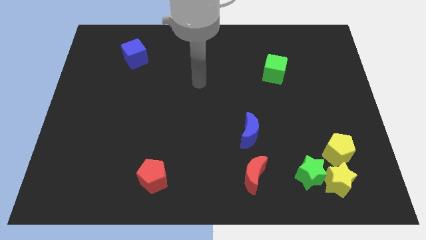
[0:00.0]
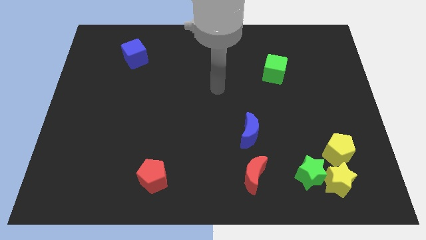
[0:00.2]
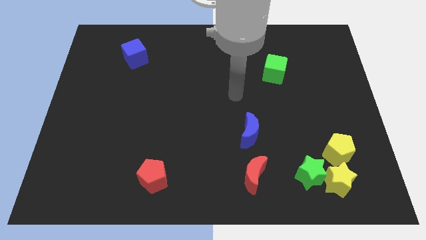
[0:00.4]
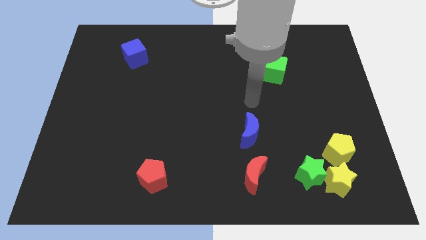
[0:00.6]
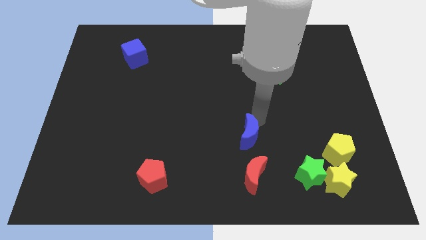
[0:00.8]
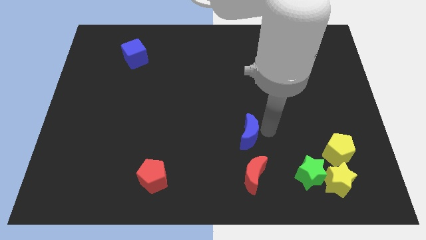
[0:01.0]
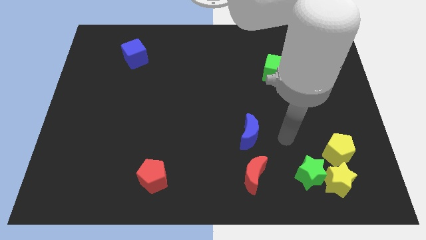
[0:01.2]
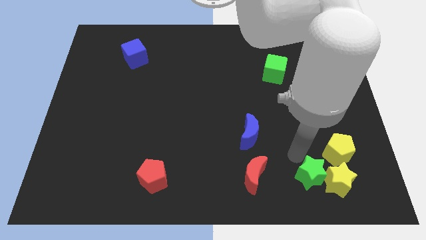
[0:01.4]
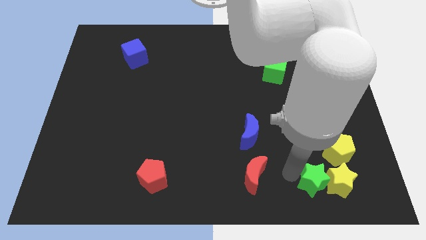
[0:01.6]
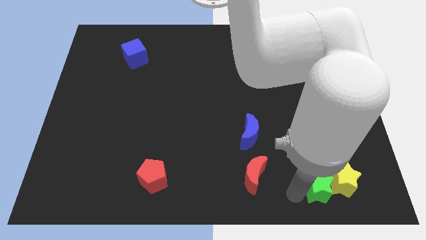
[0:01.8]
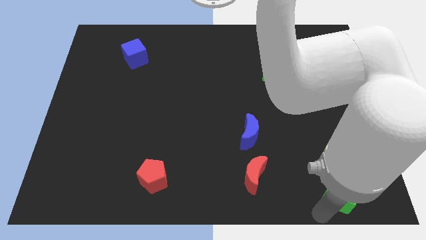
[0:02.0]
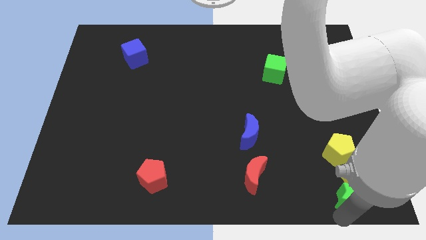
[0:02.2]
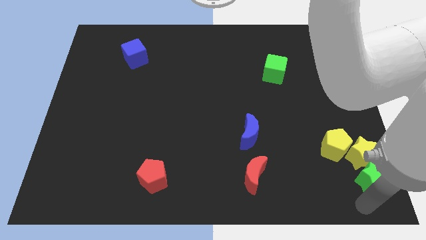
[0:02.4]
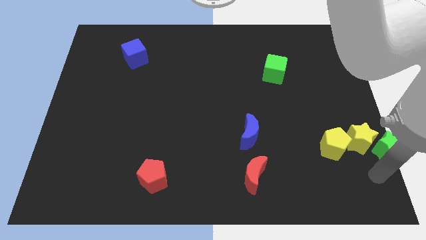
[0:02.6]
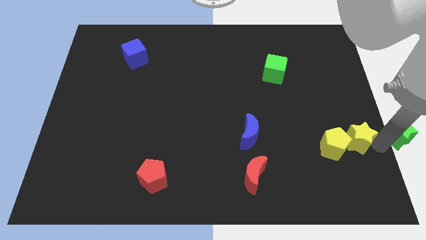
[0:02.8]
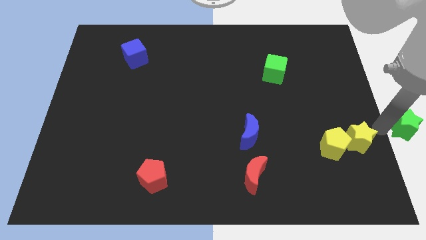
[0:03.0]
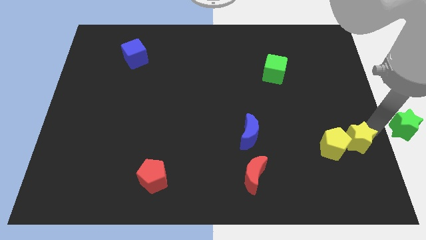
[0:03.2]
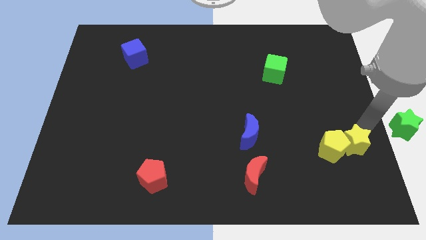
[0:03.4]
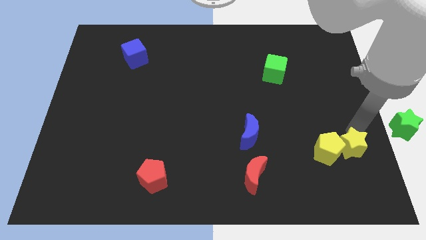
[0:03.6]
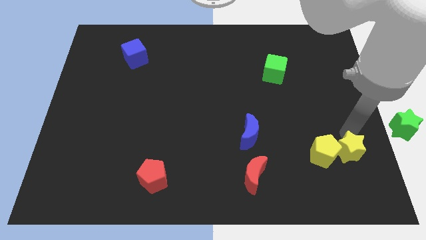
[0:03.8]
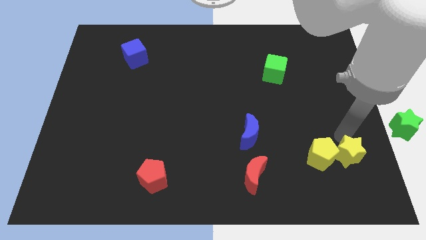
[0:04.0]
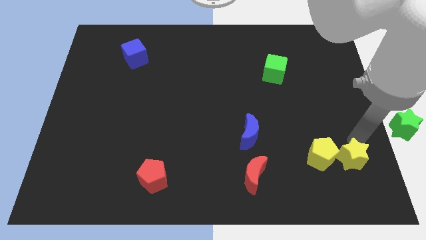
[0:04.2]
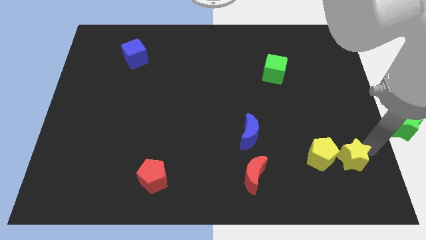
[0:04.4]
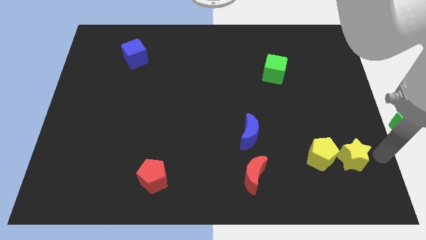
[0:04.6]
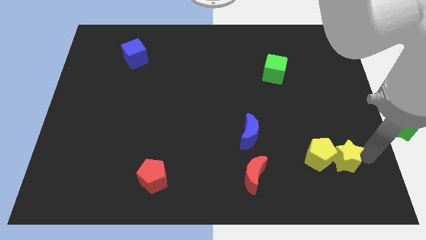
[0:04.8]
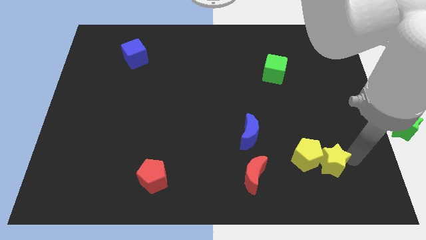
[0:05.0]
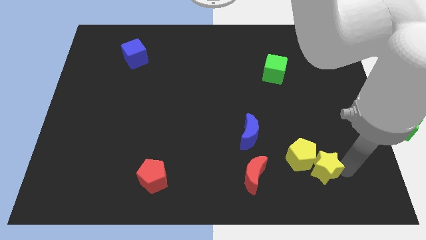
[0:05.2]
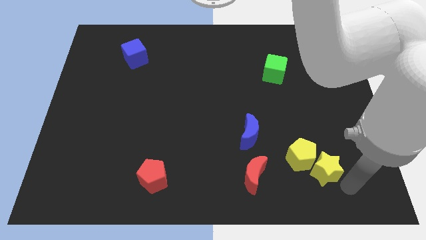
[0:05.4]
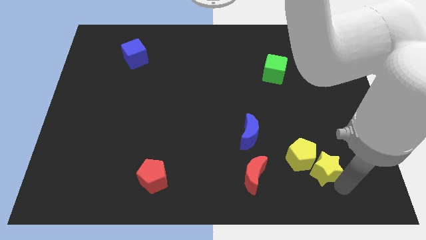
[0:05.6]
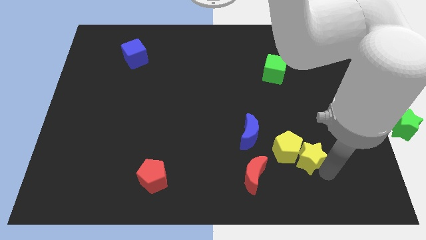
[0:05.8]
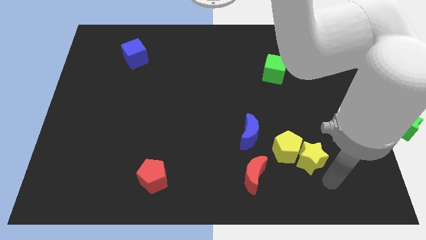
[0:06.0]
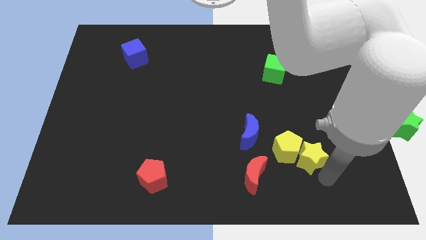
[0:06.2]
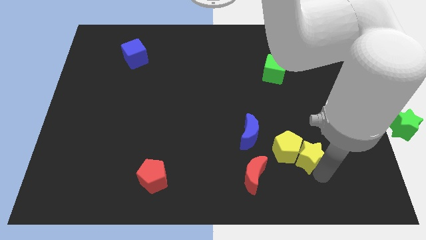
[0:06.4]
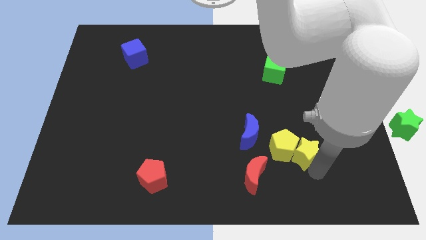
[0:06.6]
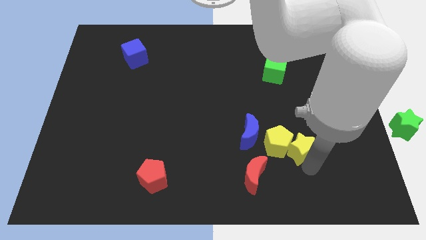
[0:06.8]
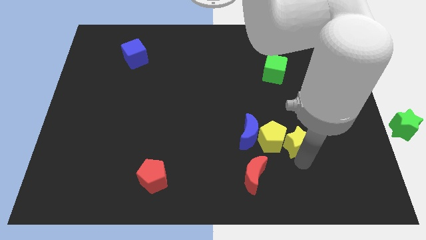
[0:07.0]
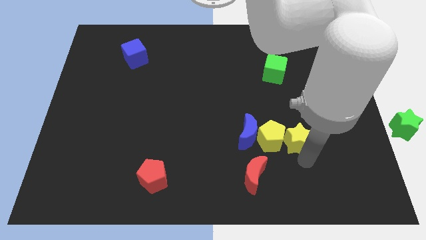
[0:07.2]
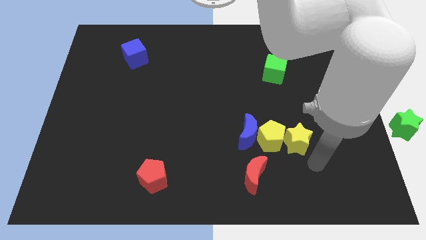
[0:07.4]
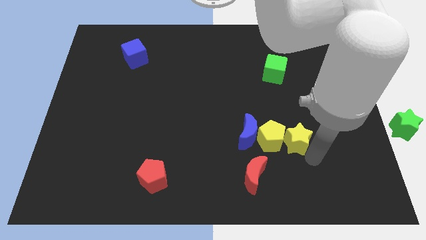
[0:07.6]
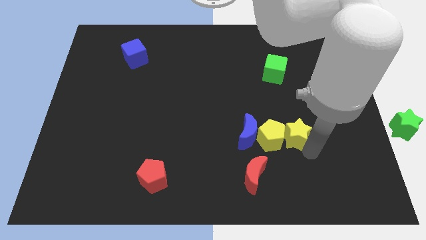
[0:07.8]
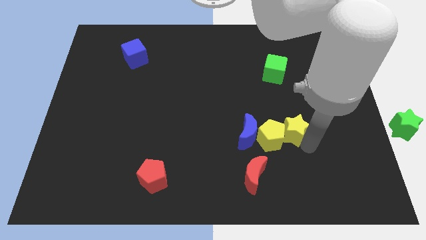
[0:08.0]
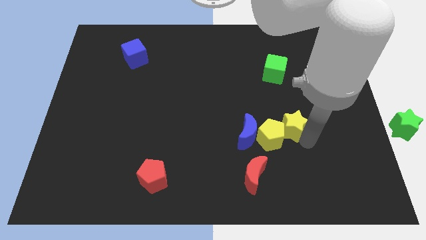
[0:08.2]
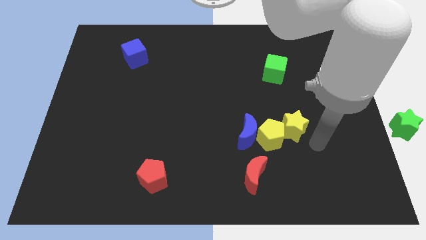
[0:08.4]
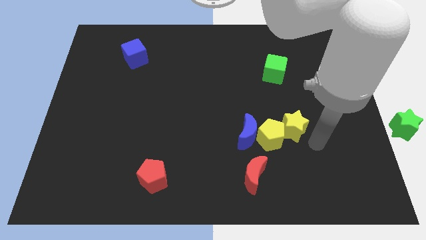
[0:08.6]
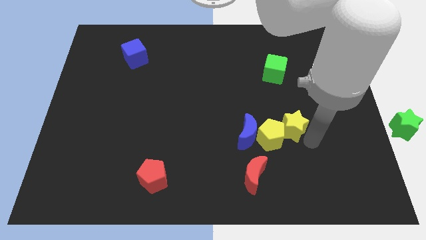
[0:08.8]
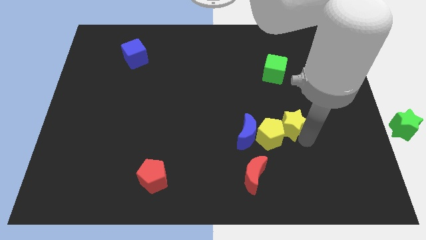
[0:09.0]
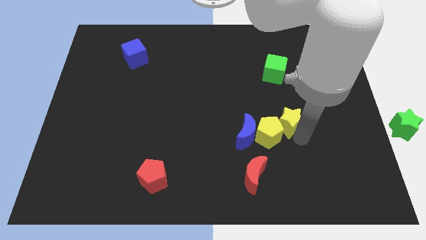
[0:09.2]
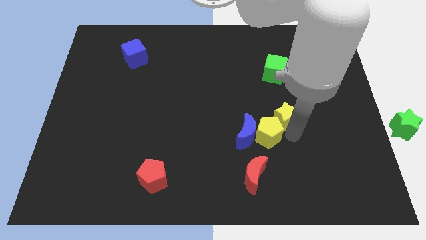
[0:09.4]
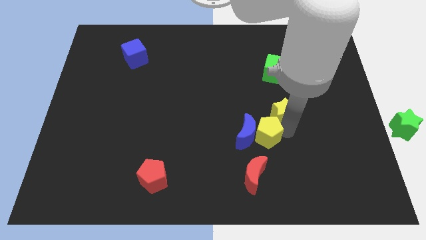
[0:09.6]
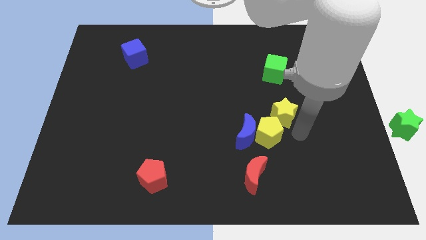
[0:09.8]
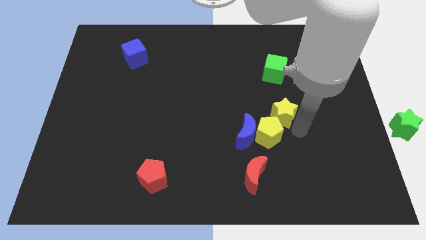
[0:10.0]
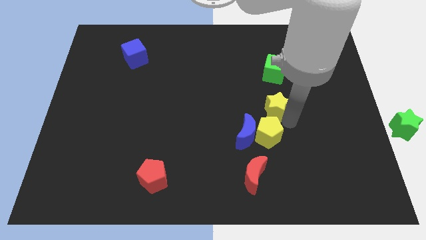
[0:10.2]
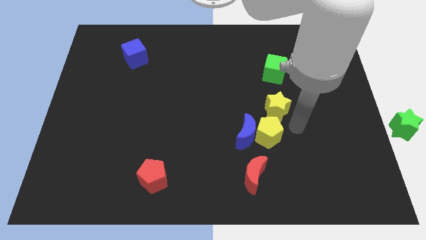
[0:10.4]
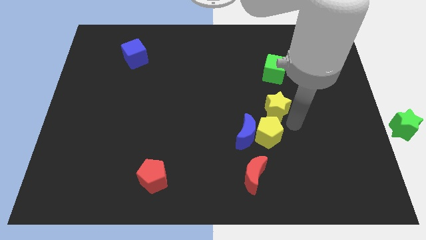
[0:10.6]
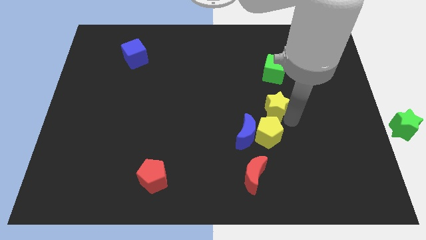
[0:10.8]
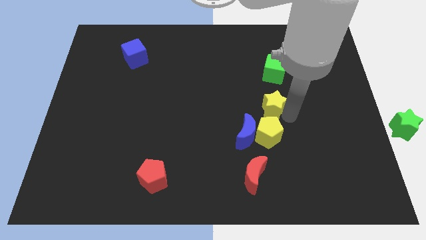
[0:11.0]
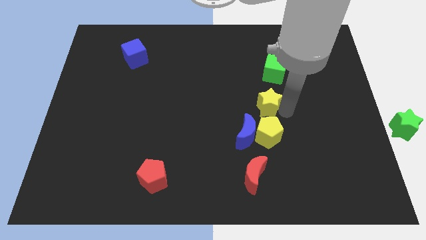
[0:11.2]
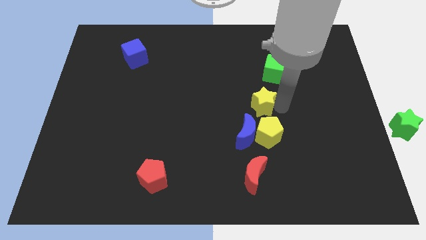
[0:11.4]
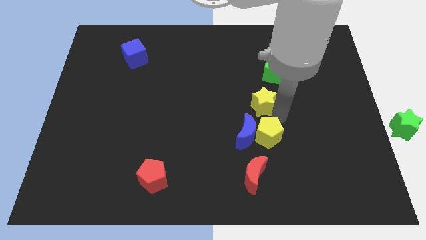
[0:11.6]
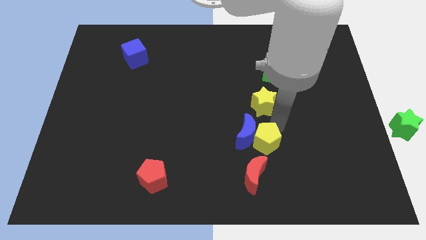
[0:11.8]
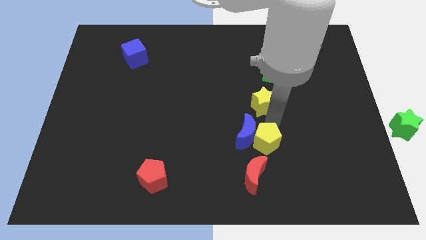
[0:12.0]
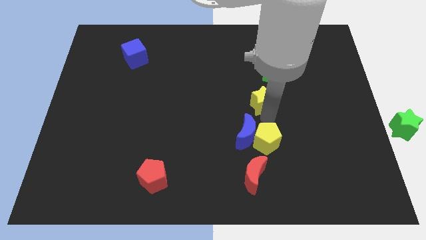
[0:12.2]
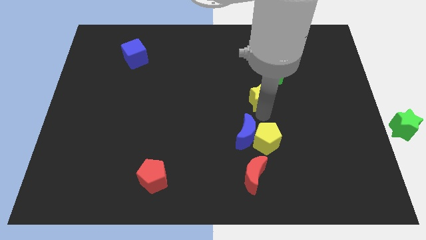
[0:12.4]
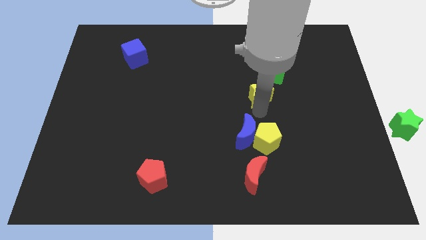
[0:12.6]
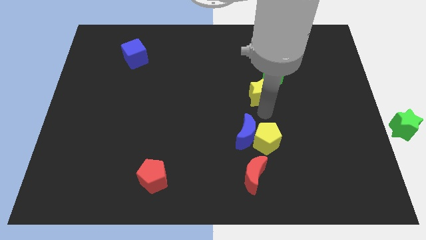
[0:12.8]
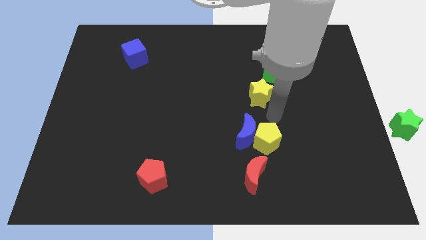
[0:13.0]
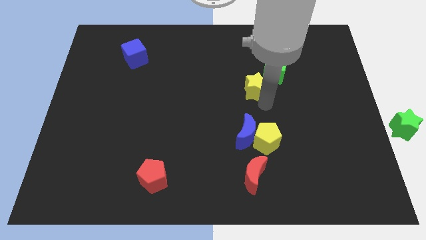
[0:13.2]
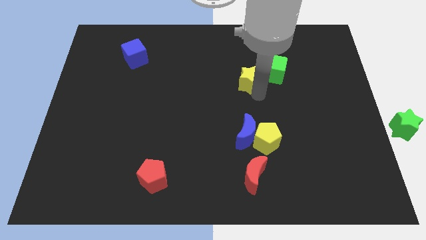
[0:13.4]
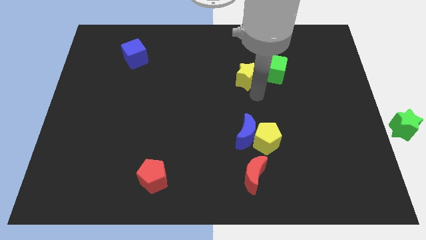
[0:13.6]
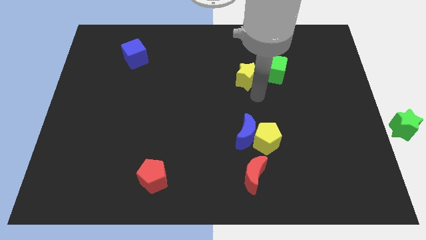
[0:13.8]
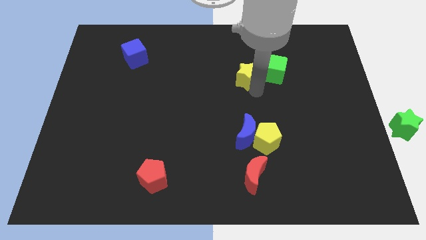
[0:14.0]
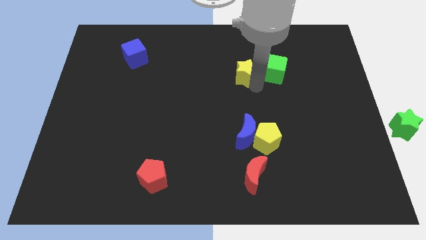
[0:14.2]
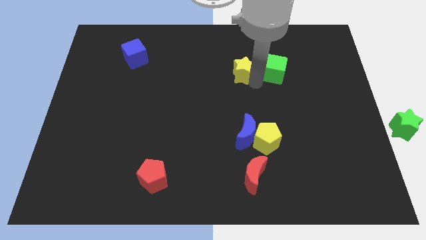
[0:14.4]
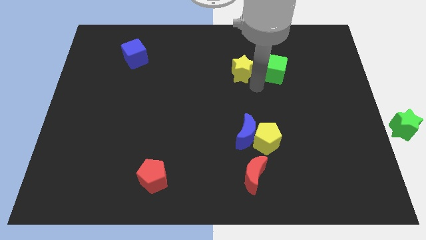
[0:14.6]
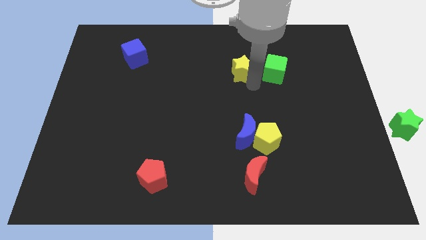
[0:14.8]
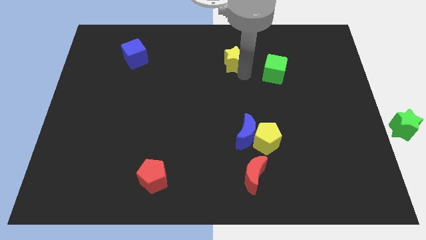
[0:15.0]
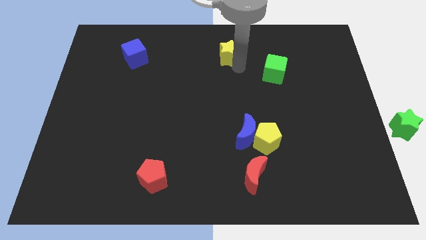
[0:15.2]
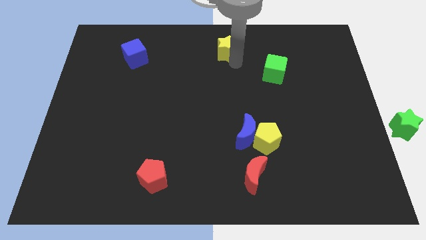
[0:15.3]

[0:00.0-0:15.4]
move the yellow star to the top side
